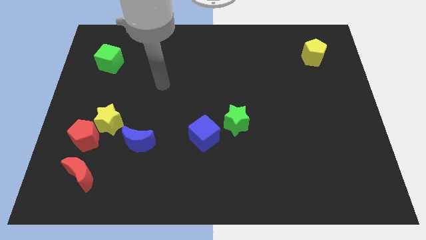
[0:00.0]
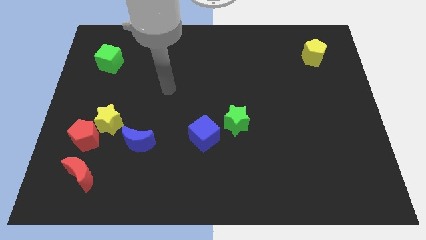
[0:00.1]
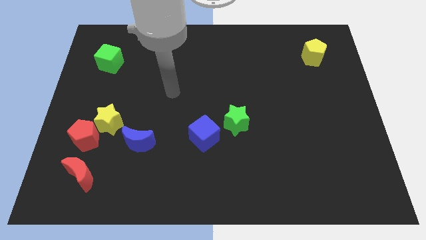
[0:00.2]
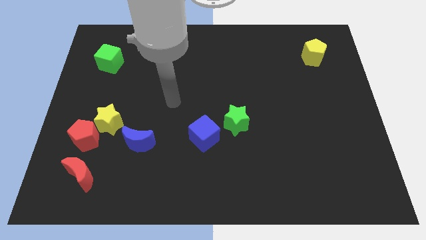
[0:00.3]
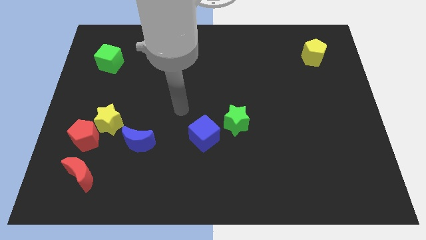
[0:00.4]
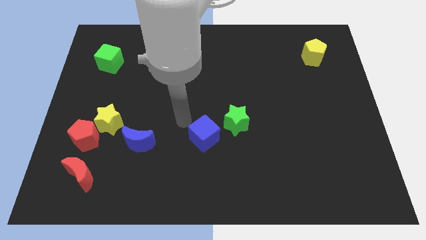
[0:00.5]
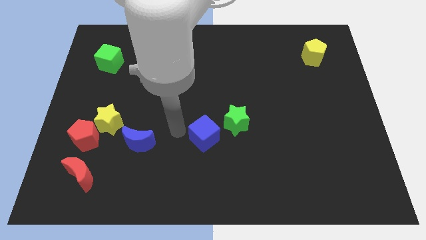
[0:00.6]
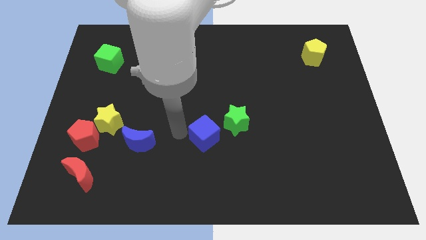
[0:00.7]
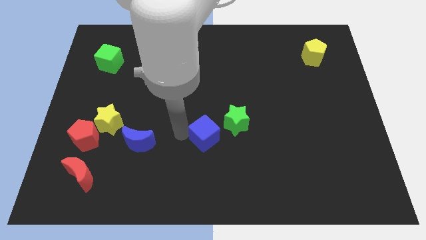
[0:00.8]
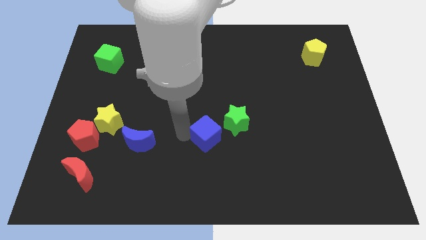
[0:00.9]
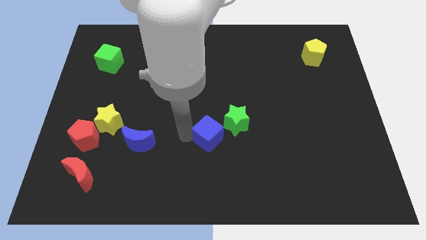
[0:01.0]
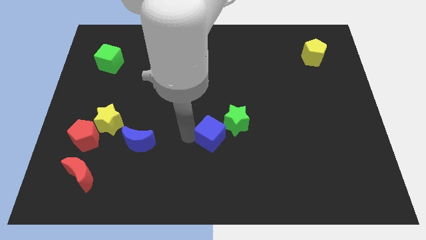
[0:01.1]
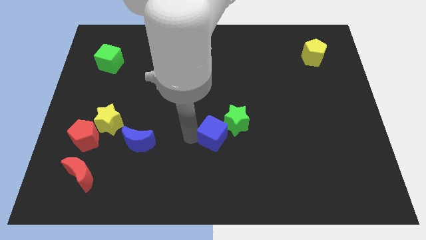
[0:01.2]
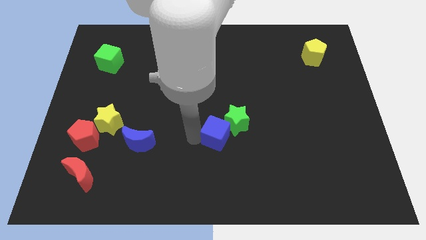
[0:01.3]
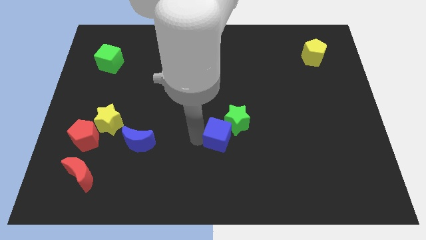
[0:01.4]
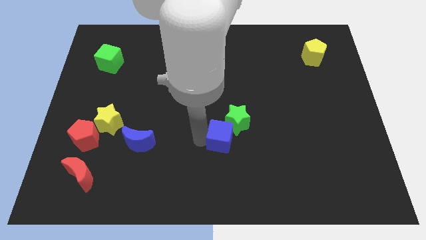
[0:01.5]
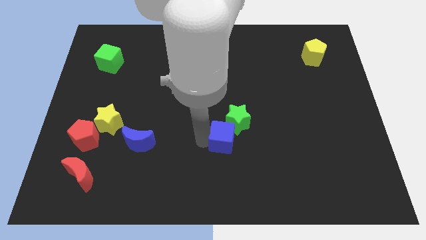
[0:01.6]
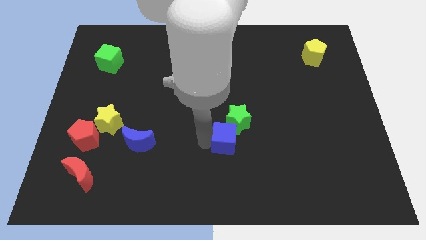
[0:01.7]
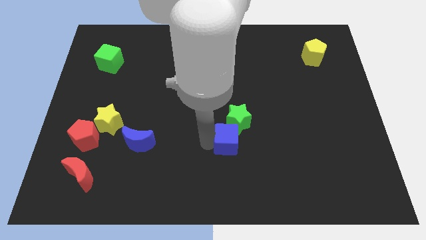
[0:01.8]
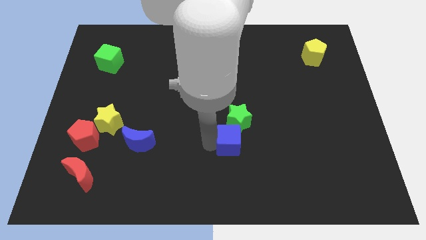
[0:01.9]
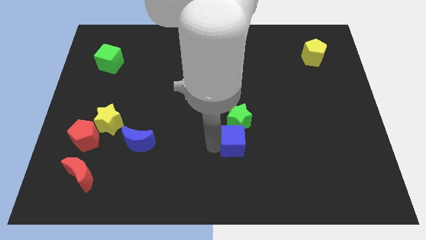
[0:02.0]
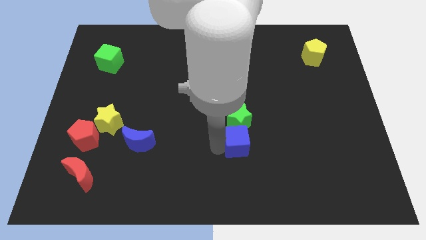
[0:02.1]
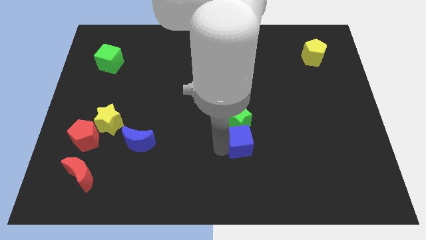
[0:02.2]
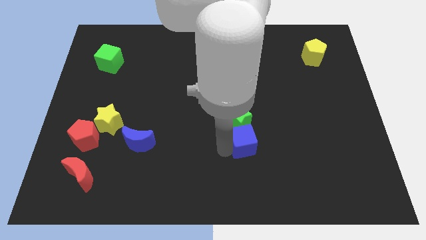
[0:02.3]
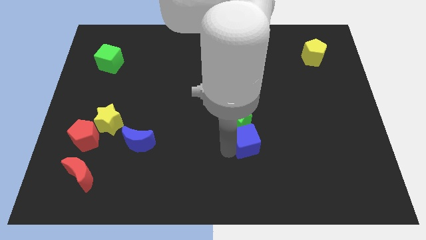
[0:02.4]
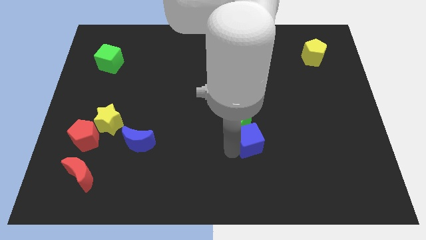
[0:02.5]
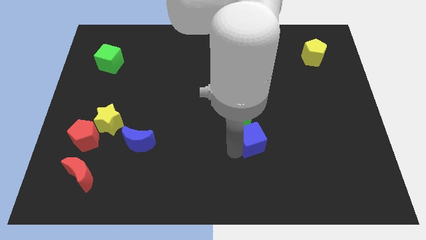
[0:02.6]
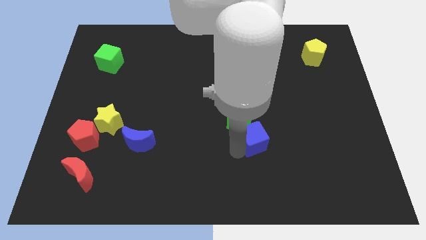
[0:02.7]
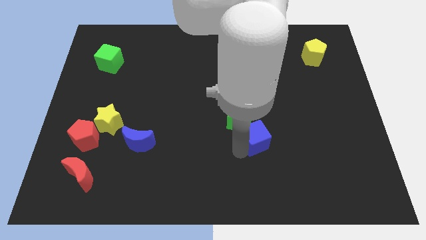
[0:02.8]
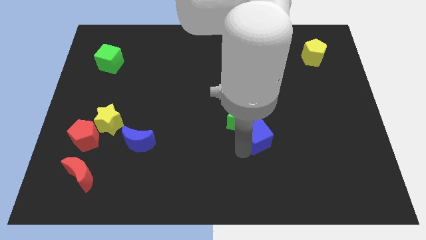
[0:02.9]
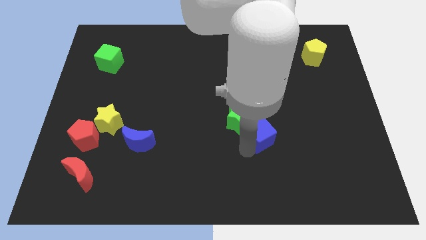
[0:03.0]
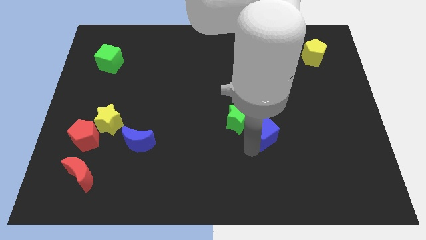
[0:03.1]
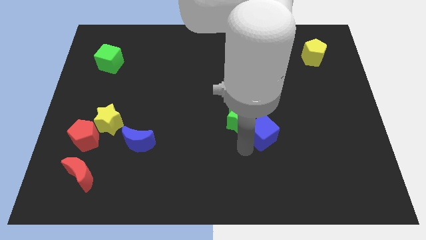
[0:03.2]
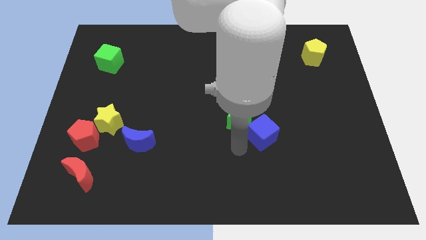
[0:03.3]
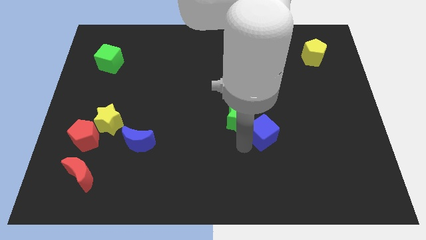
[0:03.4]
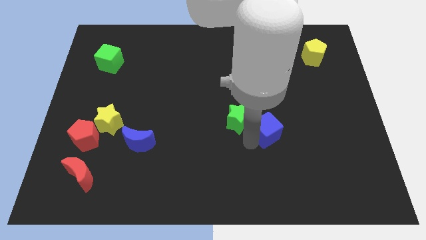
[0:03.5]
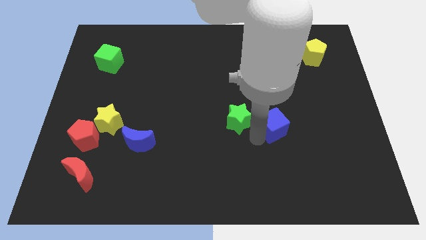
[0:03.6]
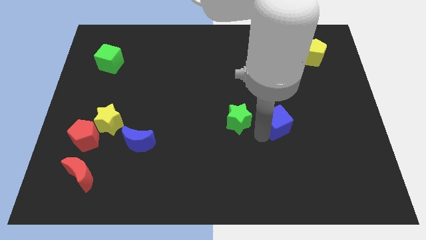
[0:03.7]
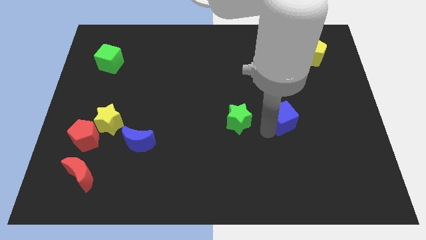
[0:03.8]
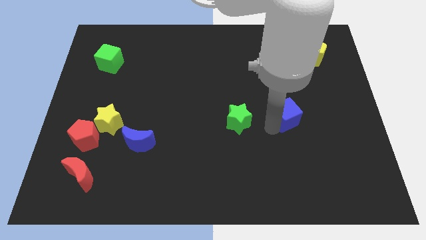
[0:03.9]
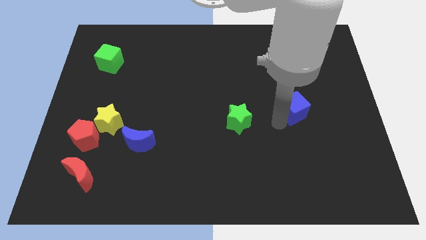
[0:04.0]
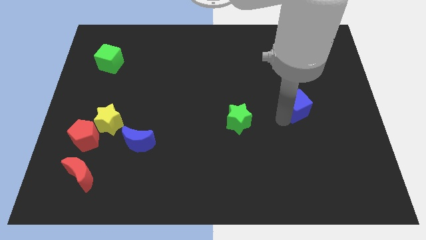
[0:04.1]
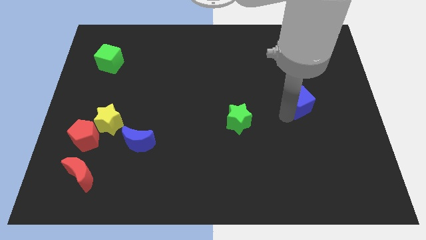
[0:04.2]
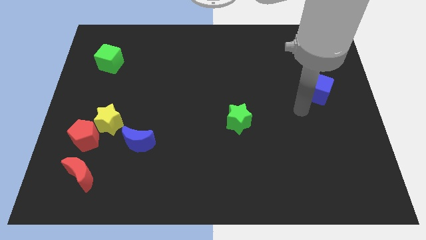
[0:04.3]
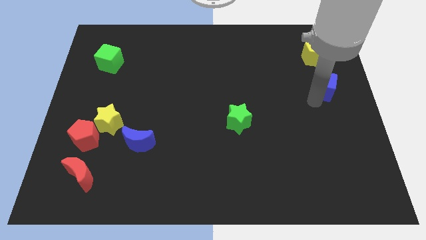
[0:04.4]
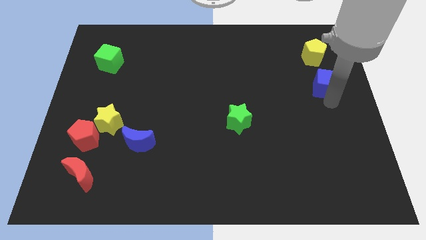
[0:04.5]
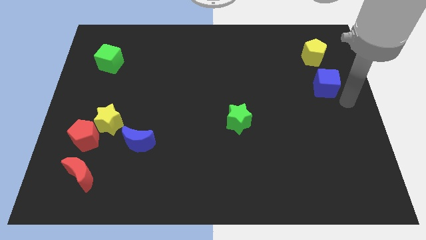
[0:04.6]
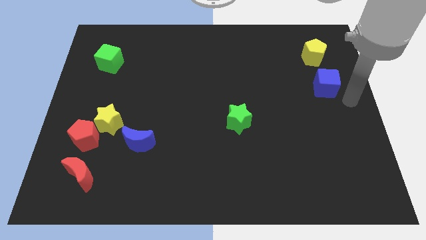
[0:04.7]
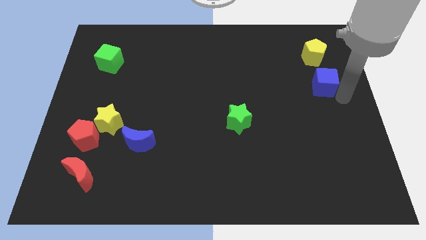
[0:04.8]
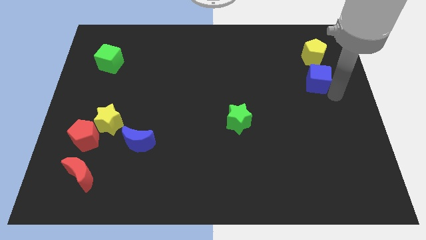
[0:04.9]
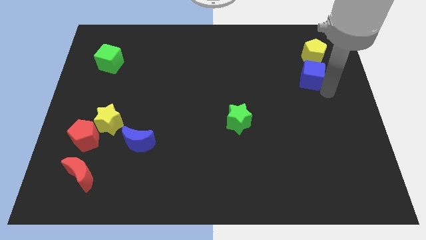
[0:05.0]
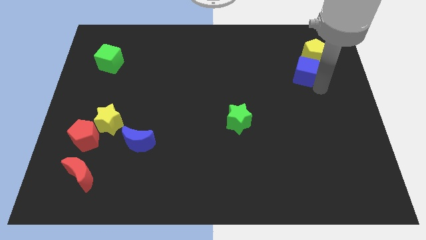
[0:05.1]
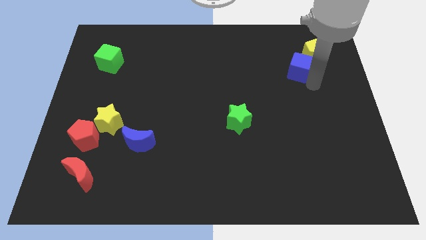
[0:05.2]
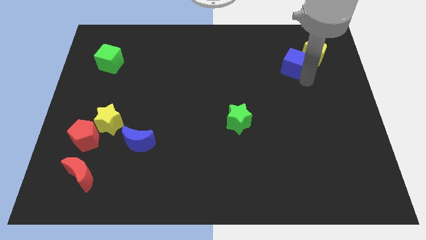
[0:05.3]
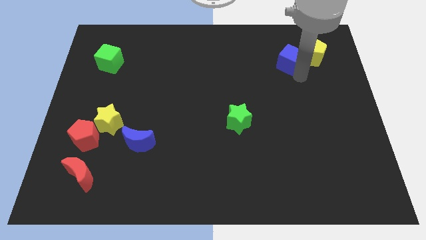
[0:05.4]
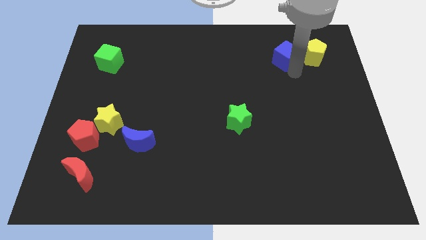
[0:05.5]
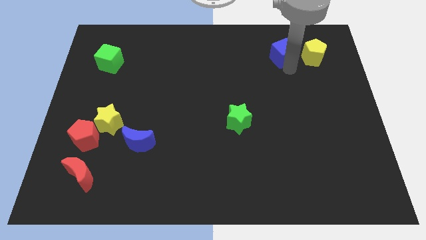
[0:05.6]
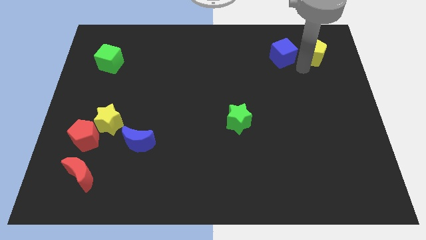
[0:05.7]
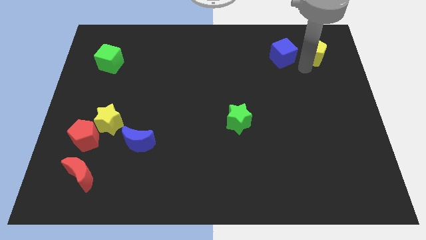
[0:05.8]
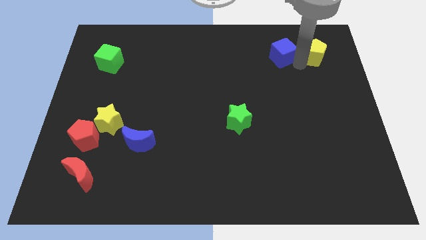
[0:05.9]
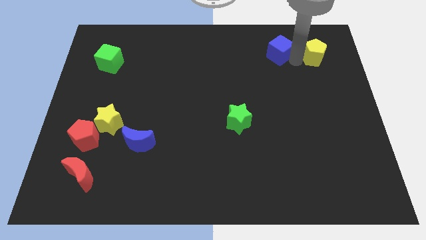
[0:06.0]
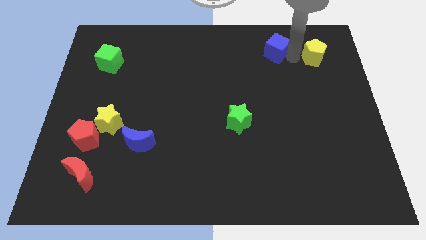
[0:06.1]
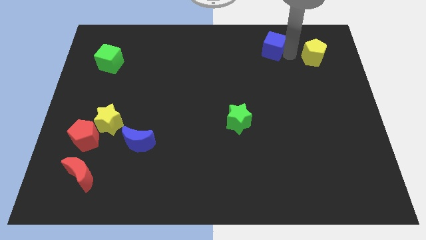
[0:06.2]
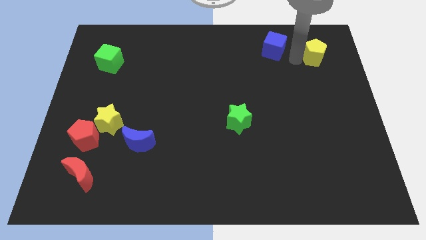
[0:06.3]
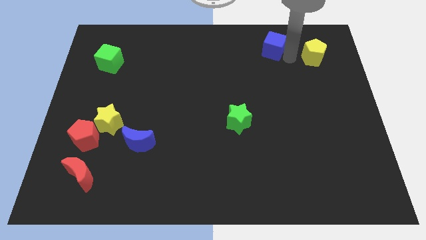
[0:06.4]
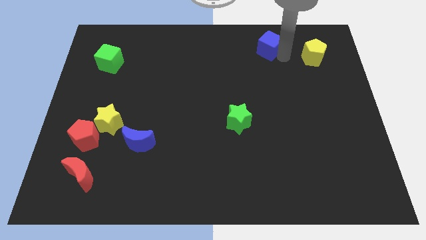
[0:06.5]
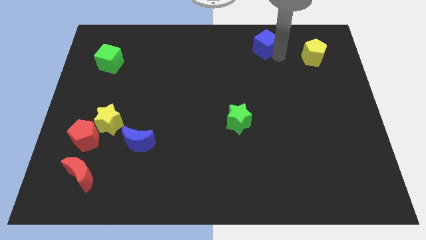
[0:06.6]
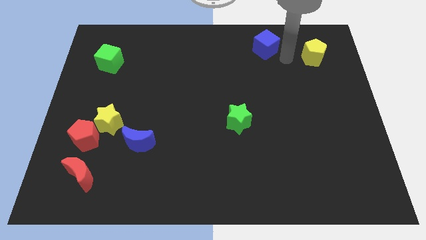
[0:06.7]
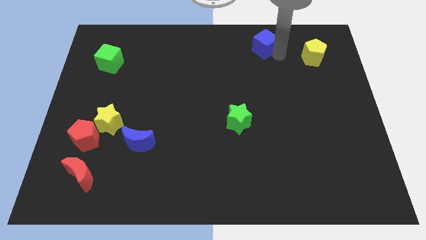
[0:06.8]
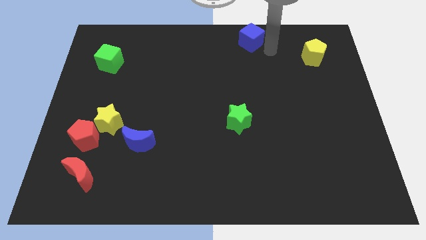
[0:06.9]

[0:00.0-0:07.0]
push the blue cube to the top side
